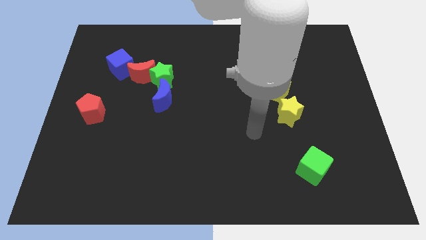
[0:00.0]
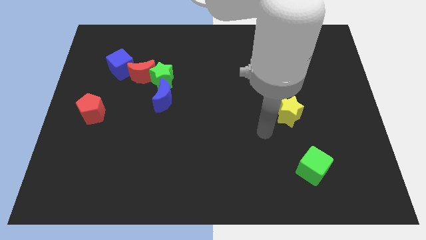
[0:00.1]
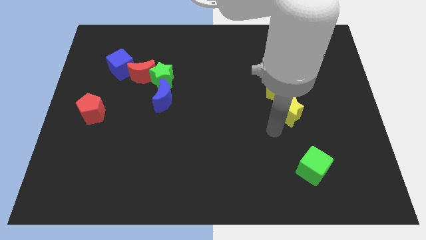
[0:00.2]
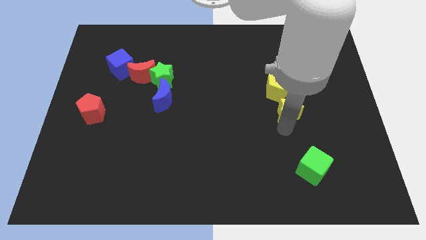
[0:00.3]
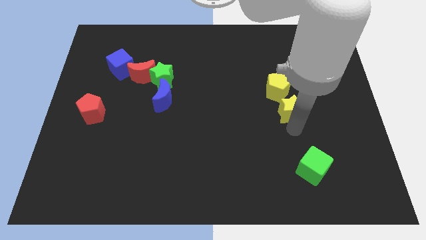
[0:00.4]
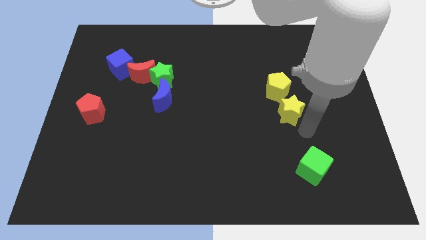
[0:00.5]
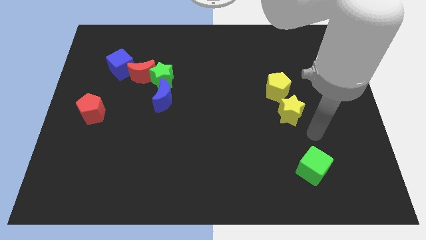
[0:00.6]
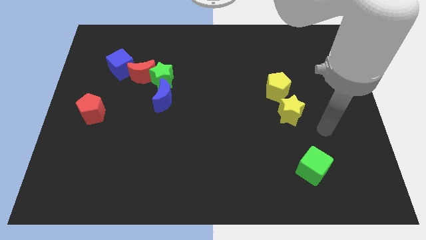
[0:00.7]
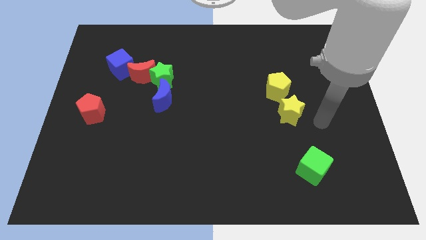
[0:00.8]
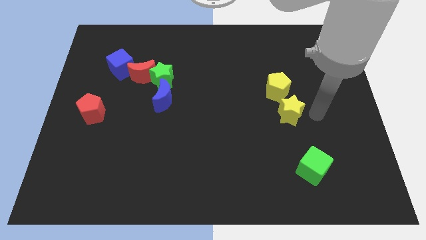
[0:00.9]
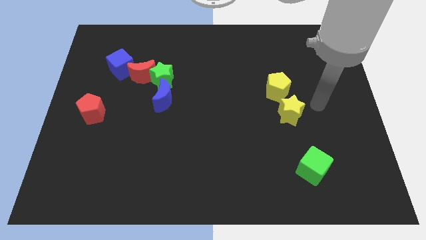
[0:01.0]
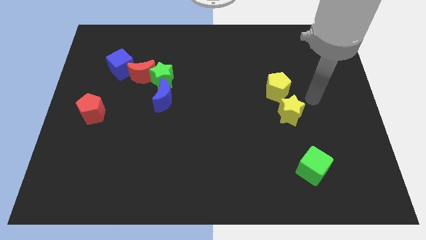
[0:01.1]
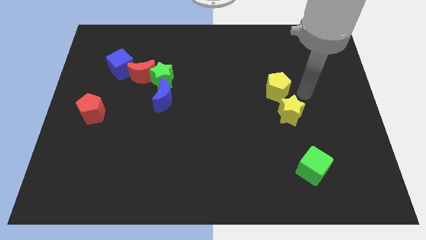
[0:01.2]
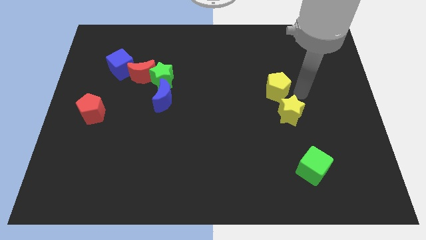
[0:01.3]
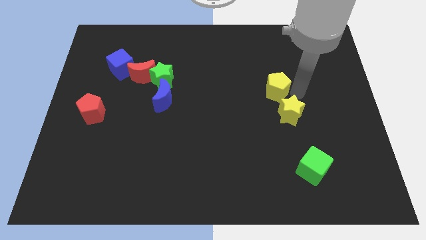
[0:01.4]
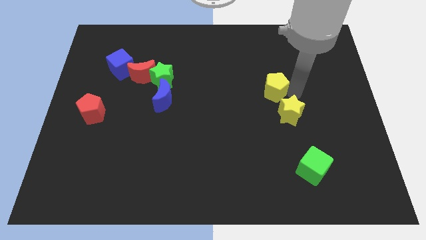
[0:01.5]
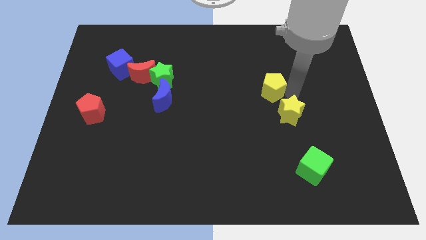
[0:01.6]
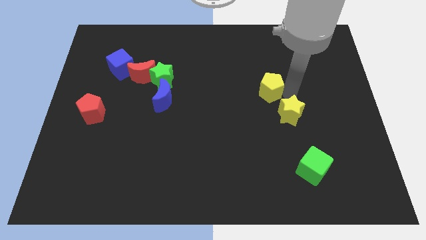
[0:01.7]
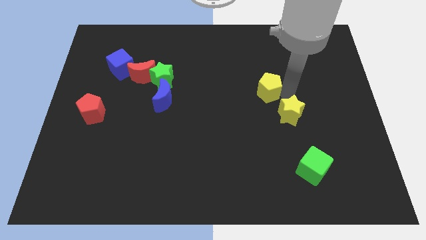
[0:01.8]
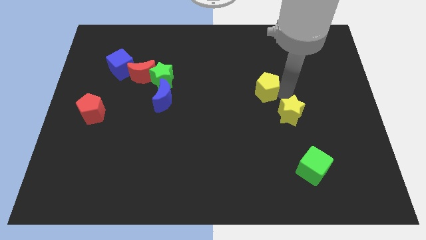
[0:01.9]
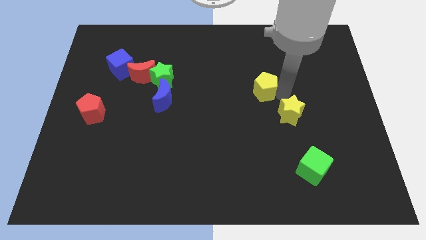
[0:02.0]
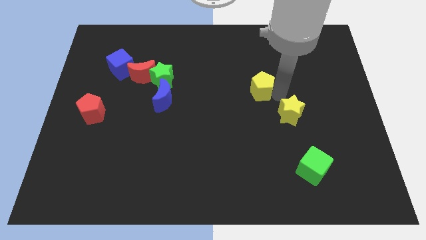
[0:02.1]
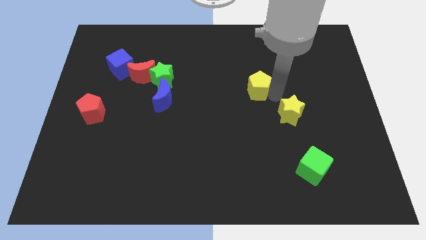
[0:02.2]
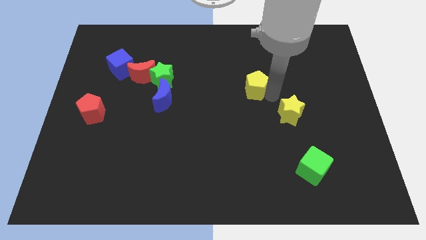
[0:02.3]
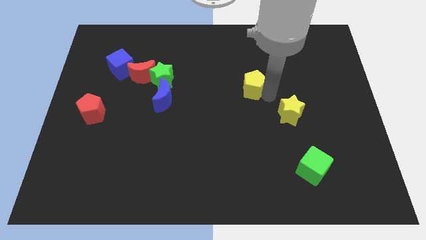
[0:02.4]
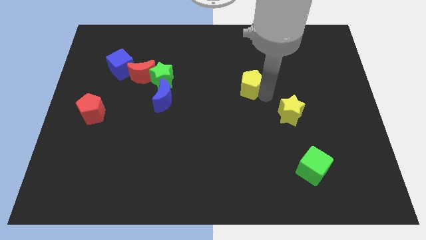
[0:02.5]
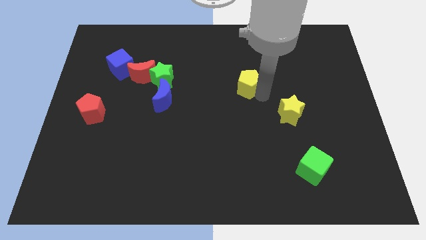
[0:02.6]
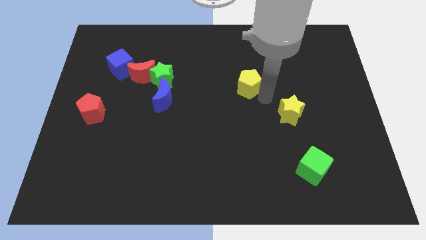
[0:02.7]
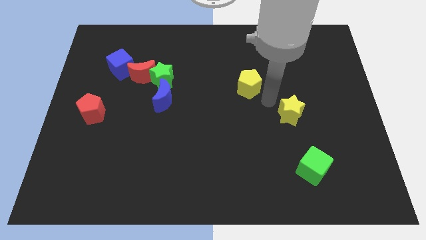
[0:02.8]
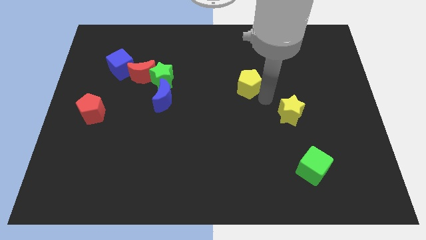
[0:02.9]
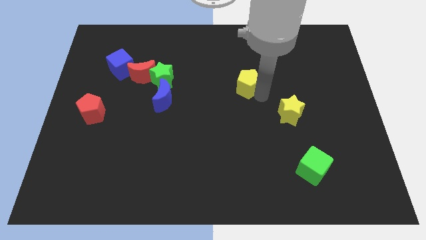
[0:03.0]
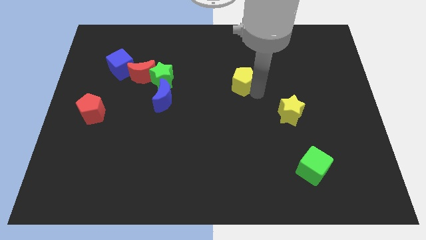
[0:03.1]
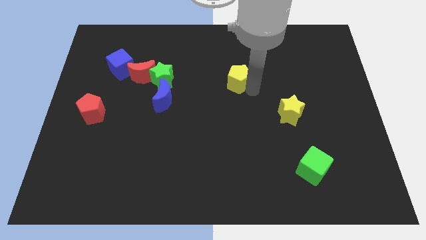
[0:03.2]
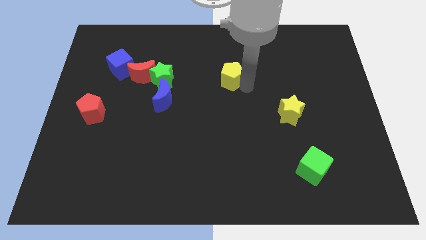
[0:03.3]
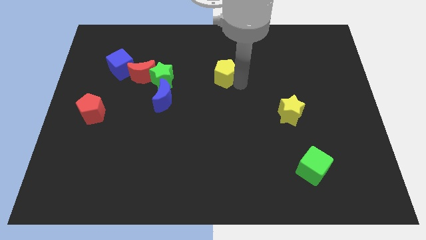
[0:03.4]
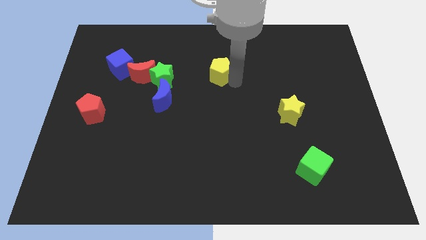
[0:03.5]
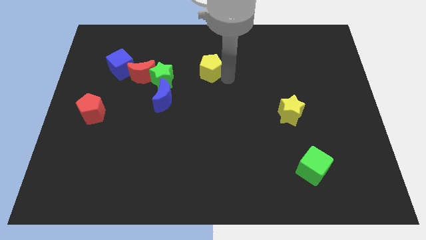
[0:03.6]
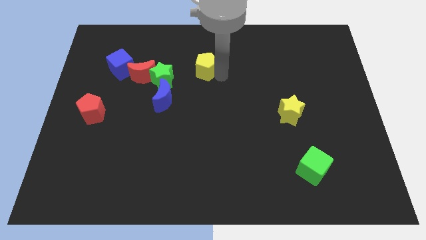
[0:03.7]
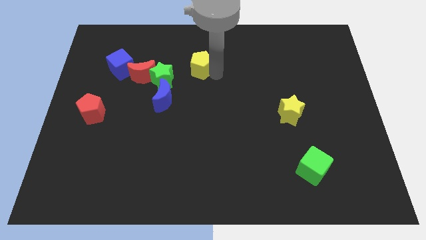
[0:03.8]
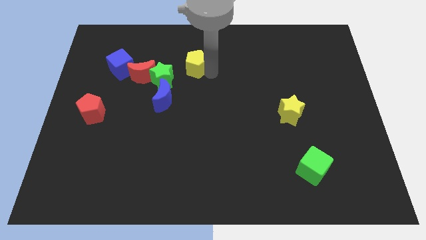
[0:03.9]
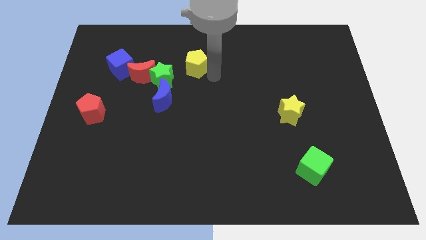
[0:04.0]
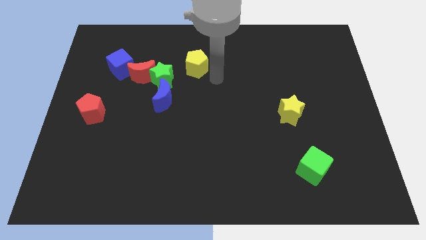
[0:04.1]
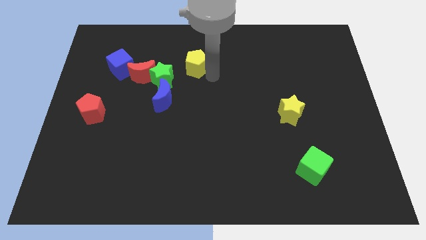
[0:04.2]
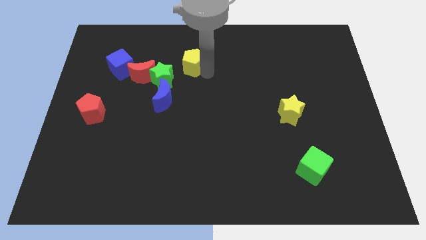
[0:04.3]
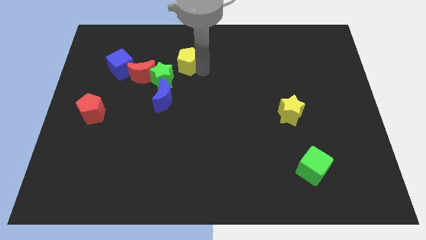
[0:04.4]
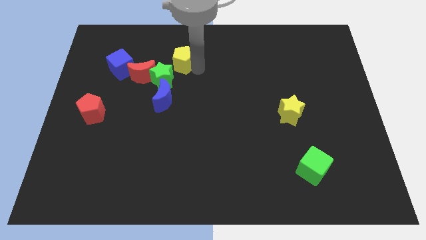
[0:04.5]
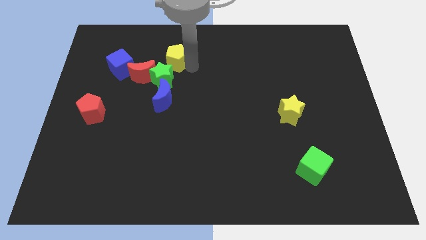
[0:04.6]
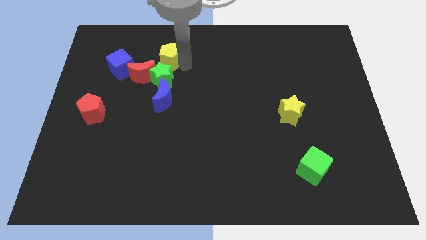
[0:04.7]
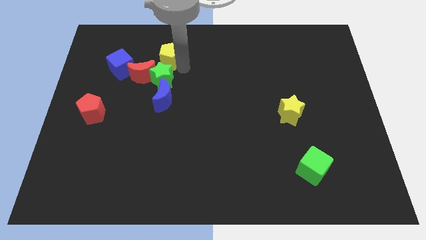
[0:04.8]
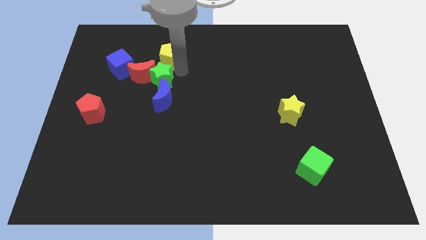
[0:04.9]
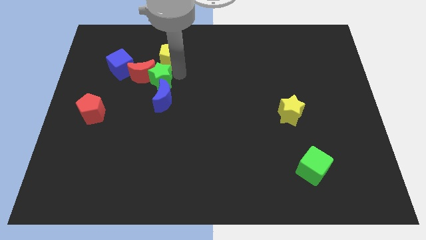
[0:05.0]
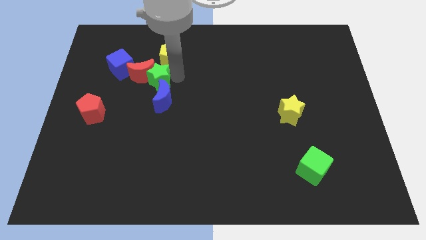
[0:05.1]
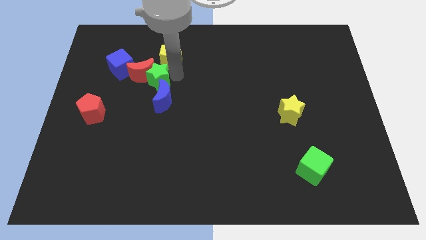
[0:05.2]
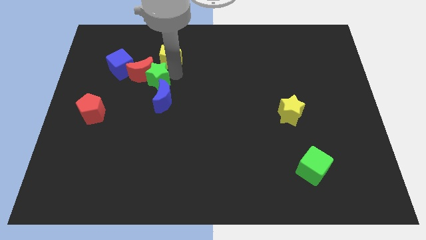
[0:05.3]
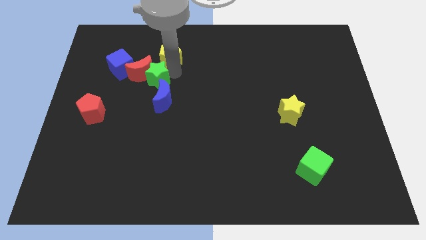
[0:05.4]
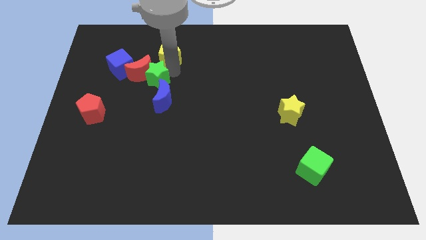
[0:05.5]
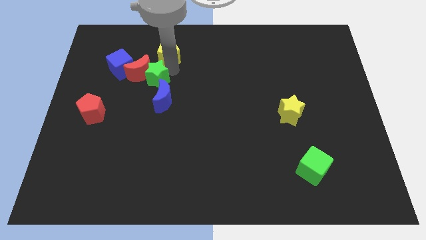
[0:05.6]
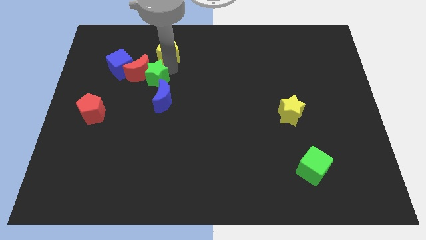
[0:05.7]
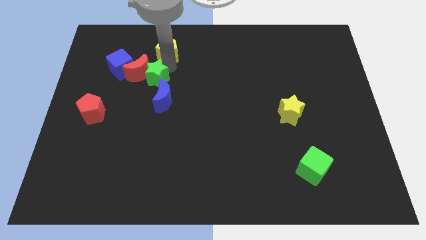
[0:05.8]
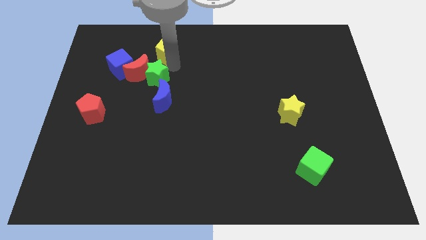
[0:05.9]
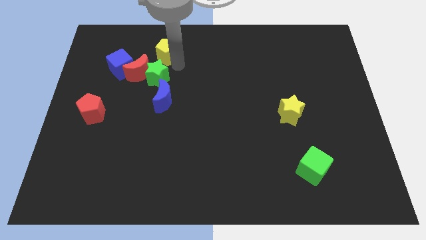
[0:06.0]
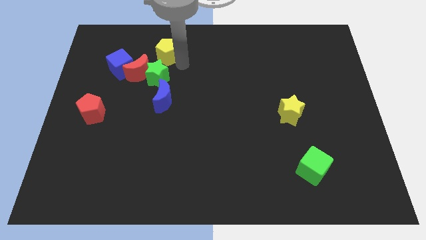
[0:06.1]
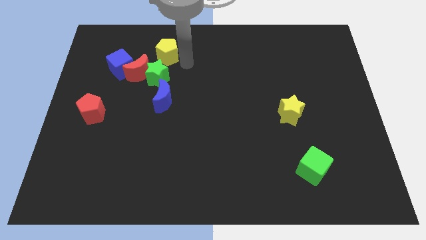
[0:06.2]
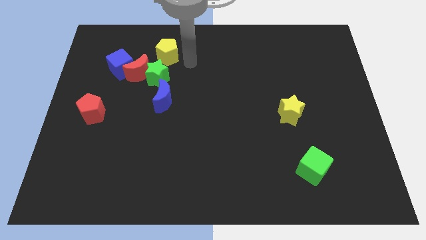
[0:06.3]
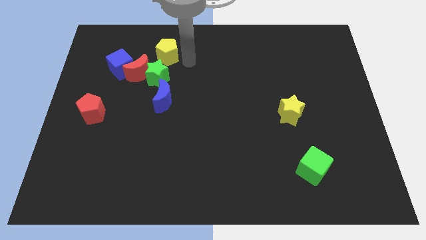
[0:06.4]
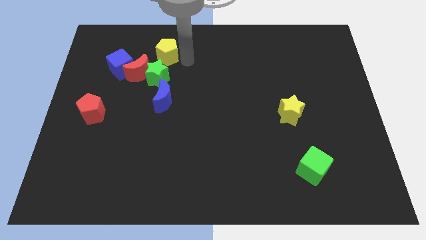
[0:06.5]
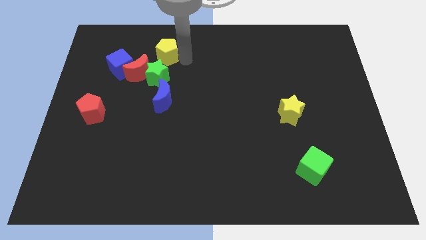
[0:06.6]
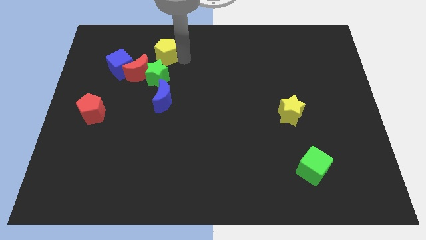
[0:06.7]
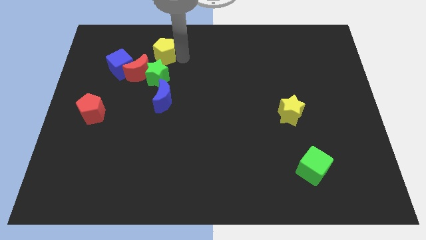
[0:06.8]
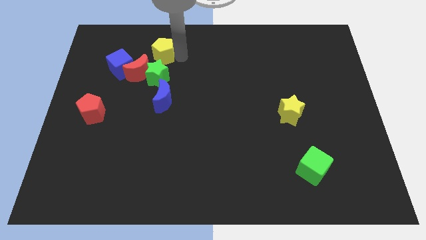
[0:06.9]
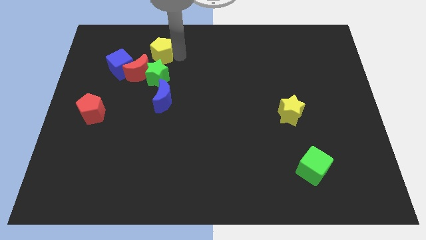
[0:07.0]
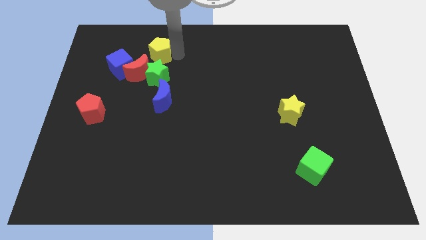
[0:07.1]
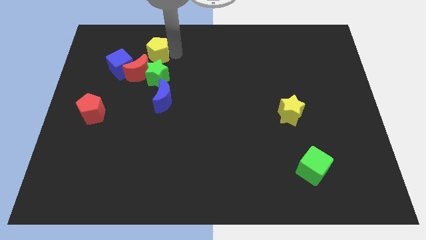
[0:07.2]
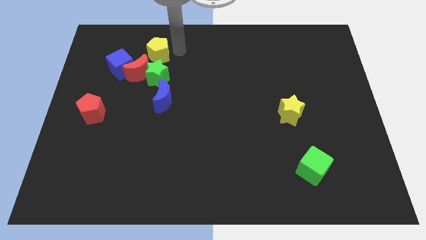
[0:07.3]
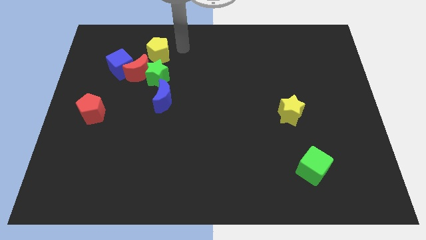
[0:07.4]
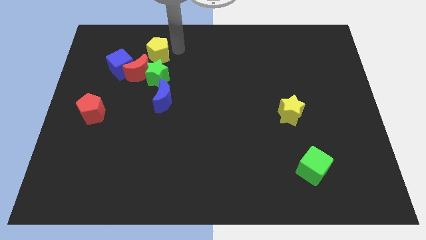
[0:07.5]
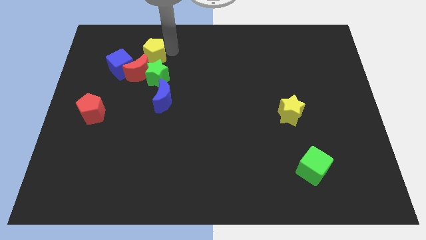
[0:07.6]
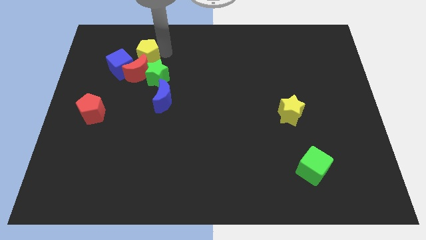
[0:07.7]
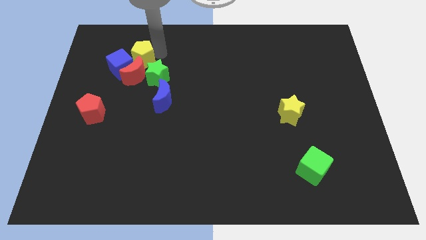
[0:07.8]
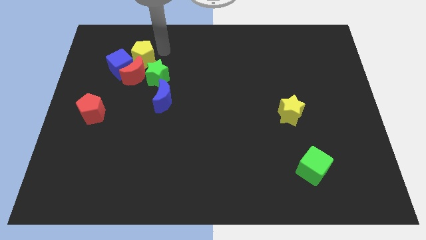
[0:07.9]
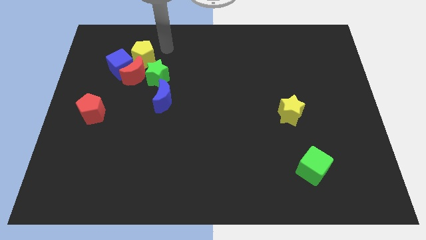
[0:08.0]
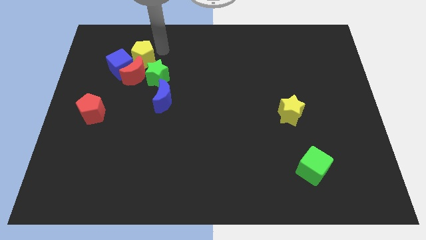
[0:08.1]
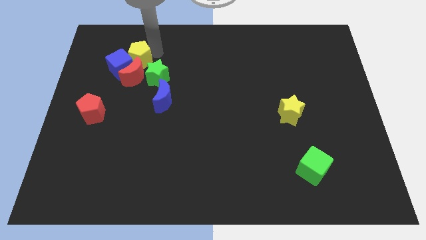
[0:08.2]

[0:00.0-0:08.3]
push the yellow pentagon towards the blue cube
